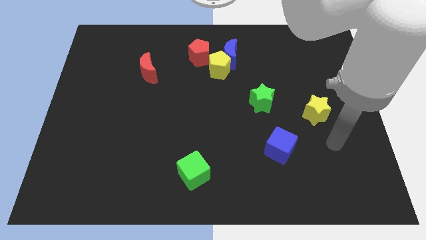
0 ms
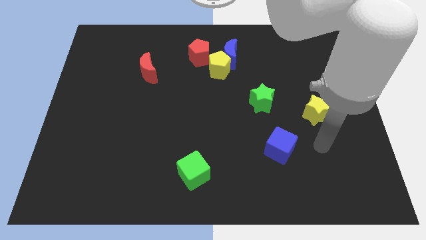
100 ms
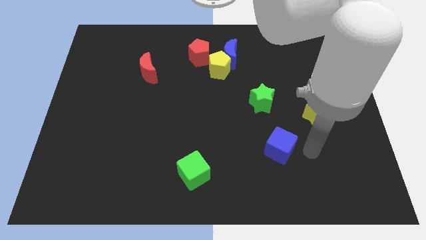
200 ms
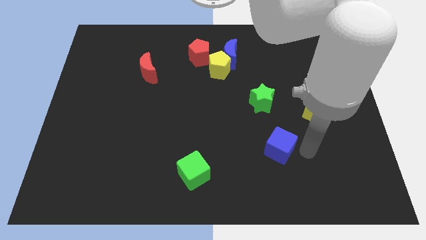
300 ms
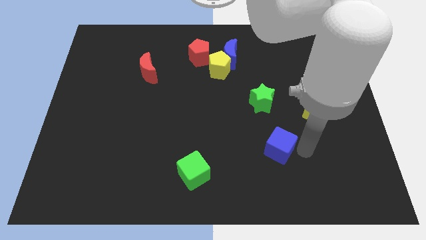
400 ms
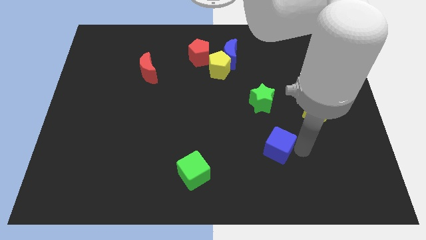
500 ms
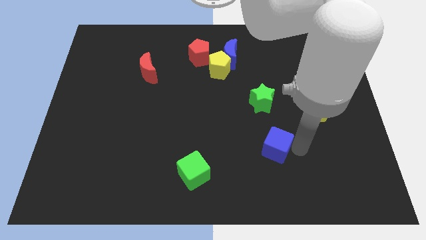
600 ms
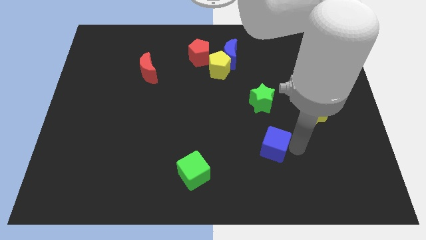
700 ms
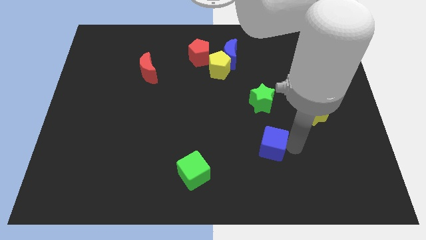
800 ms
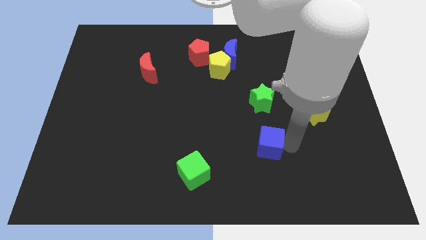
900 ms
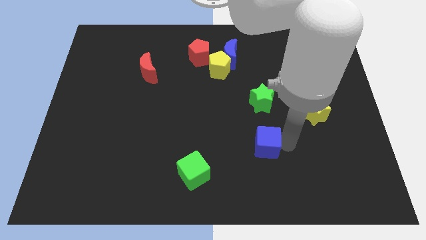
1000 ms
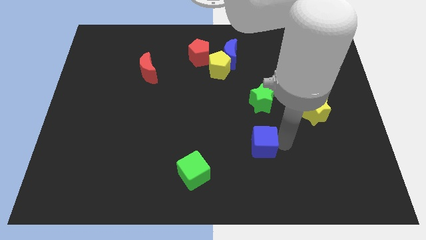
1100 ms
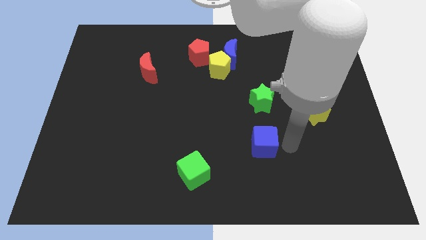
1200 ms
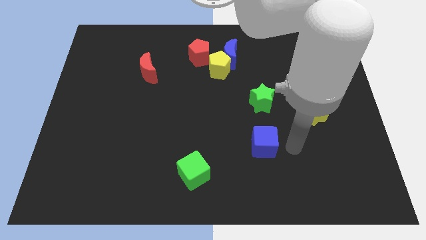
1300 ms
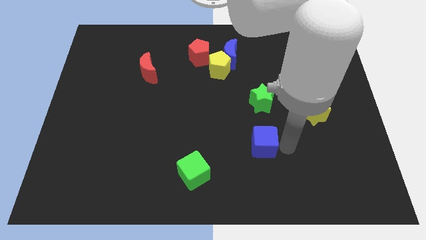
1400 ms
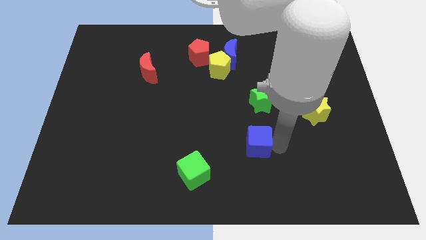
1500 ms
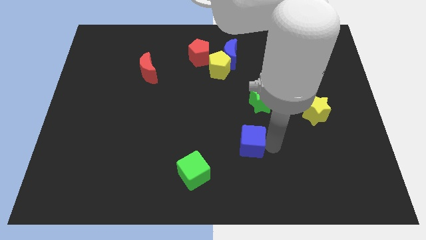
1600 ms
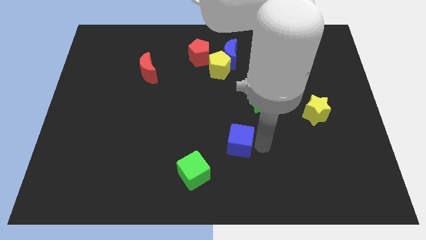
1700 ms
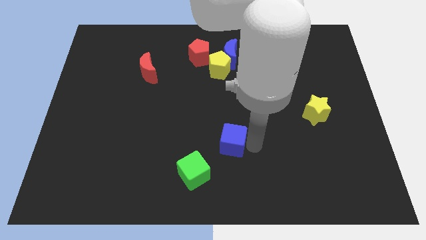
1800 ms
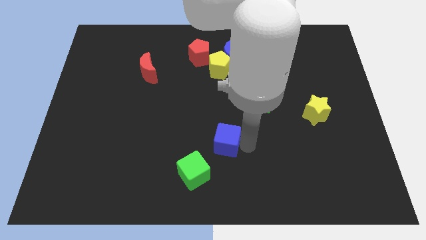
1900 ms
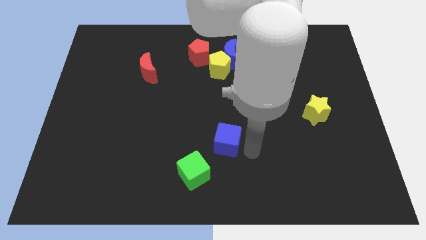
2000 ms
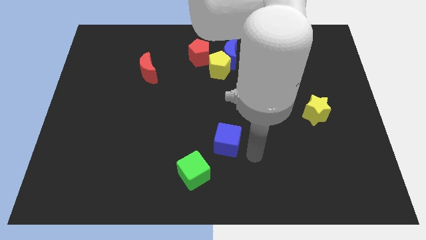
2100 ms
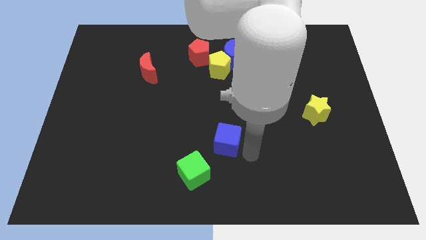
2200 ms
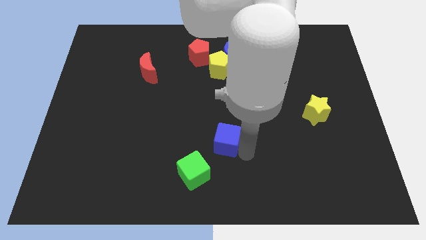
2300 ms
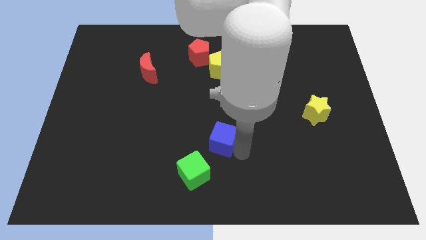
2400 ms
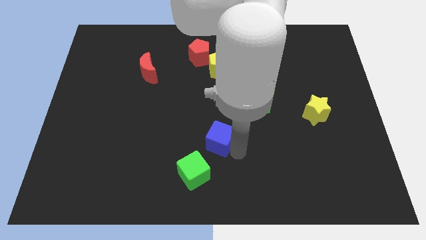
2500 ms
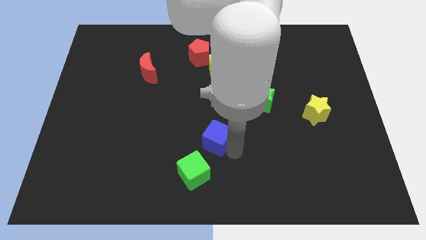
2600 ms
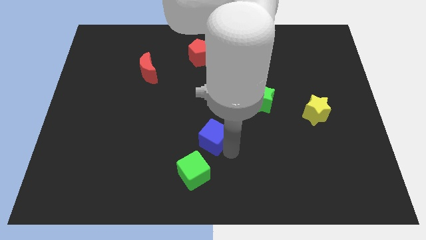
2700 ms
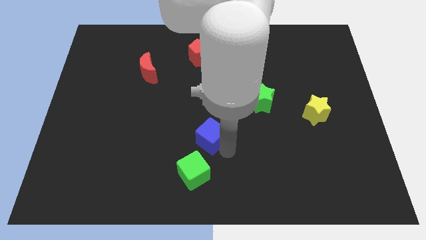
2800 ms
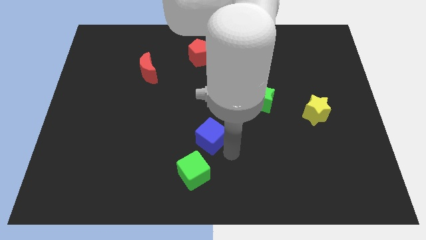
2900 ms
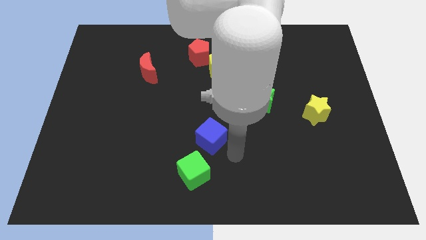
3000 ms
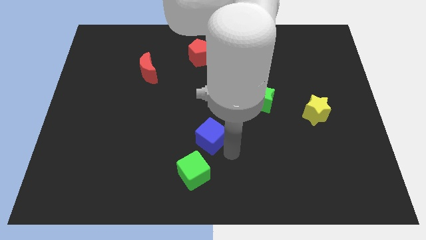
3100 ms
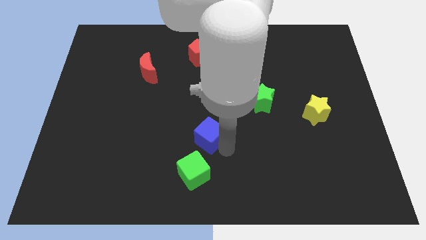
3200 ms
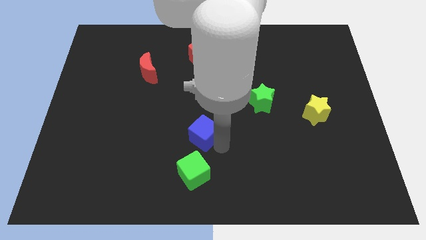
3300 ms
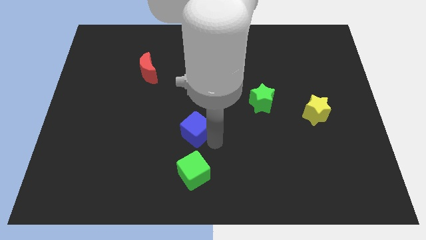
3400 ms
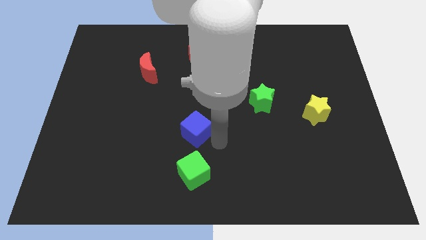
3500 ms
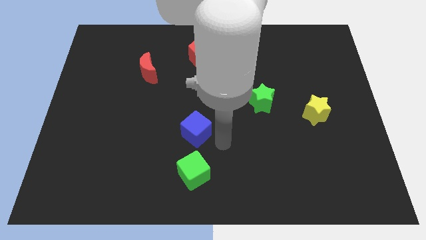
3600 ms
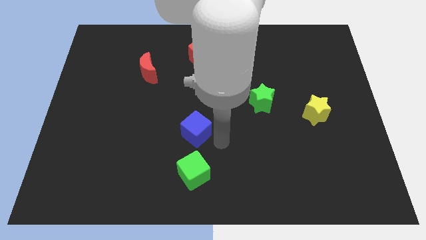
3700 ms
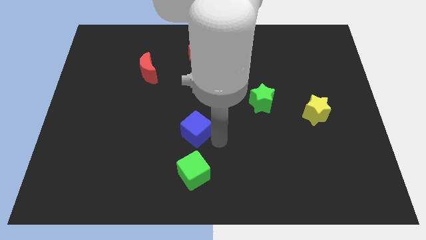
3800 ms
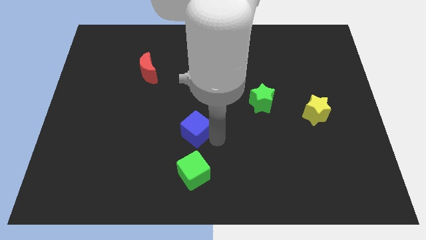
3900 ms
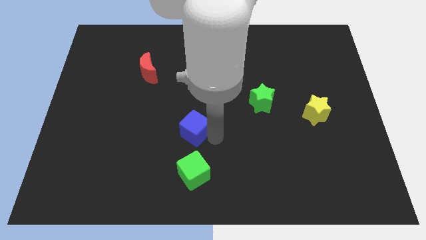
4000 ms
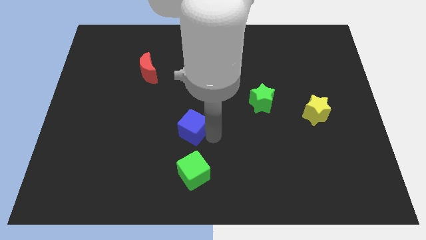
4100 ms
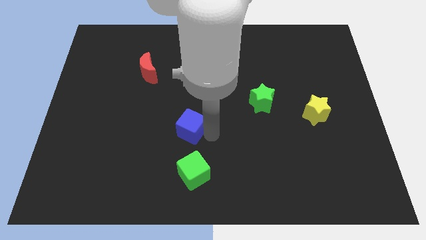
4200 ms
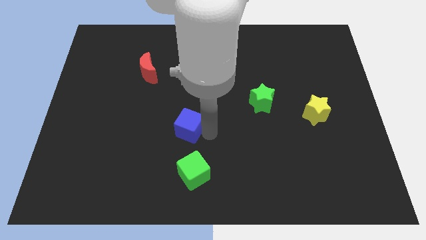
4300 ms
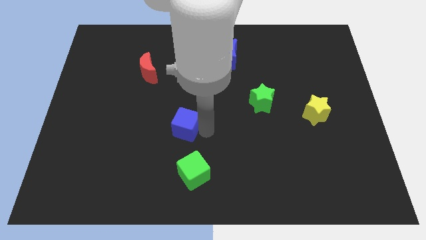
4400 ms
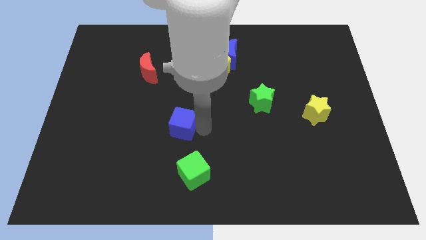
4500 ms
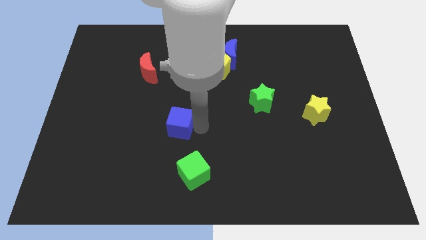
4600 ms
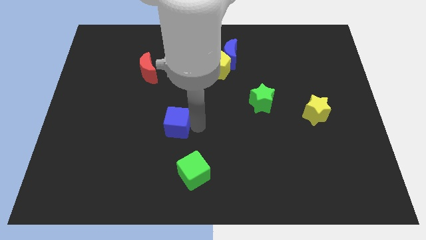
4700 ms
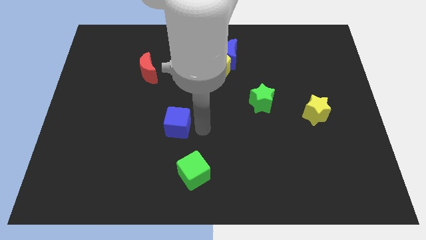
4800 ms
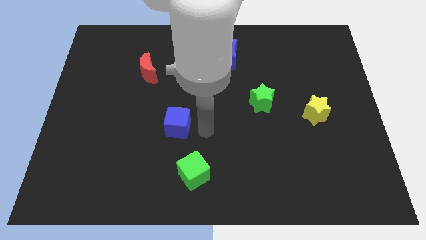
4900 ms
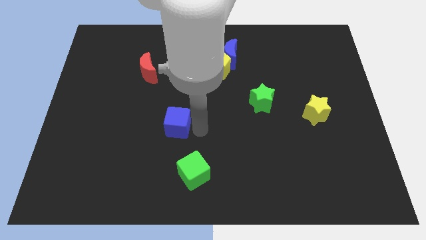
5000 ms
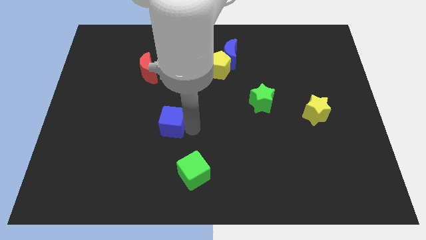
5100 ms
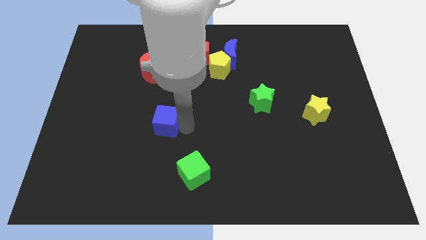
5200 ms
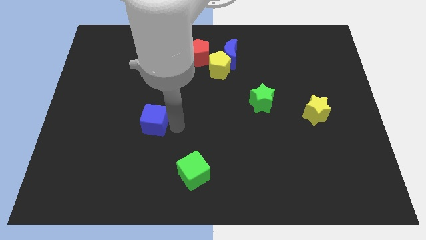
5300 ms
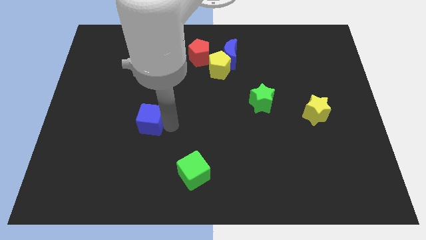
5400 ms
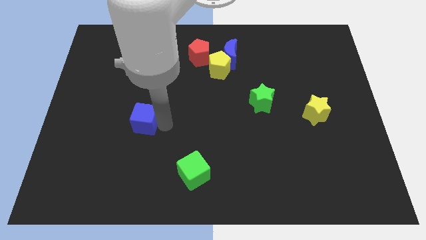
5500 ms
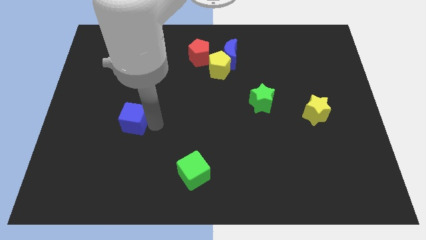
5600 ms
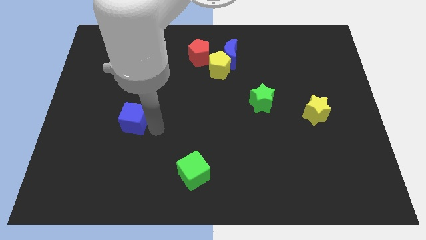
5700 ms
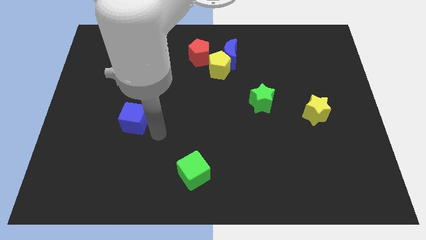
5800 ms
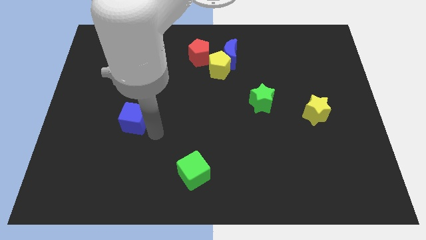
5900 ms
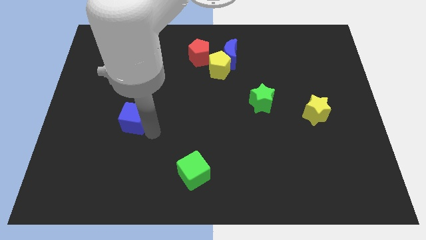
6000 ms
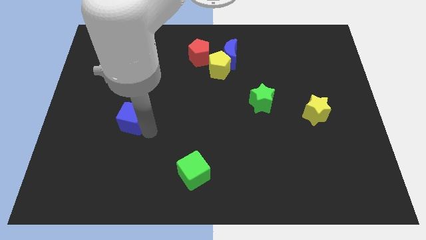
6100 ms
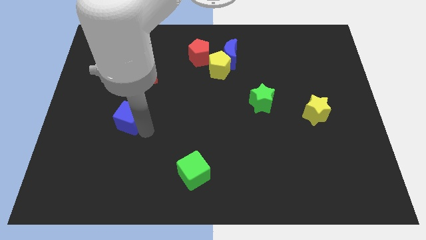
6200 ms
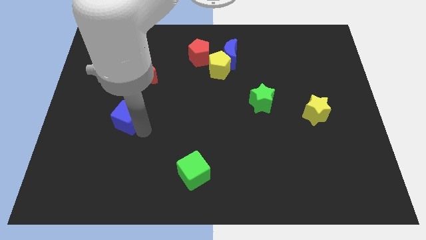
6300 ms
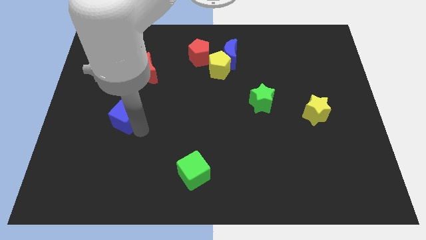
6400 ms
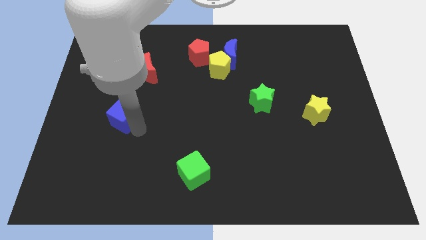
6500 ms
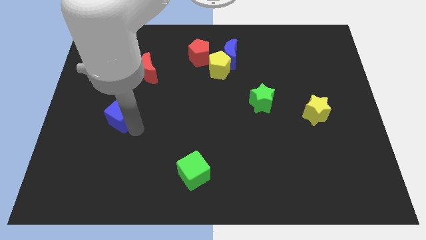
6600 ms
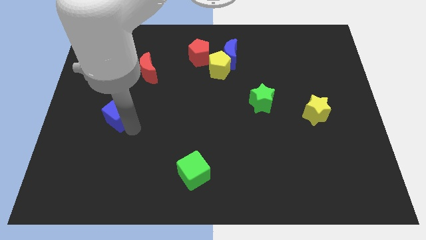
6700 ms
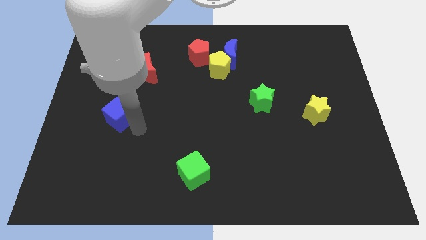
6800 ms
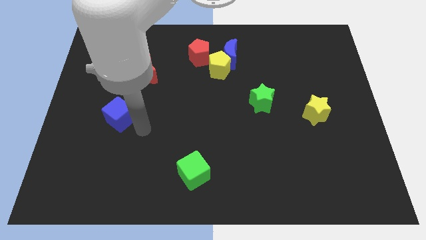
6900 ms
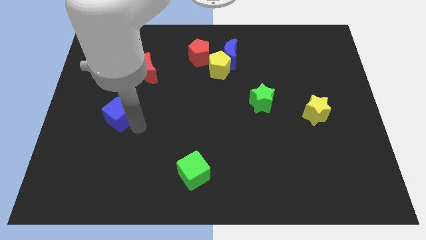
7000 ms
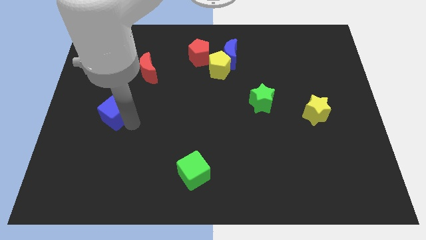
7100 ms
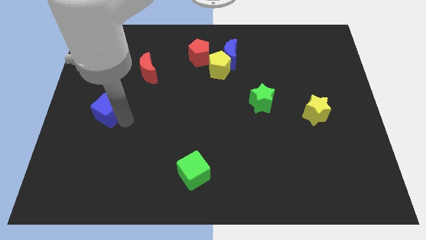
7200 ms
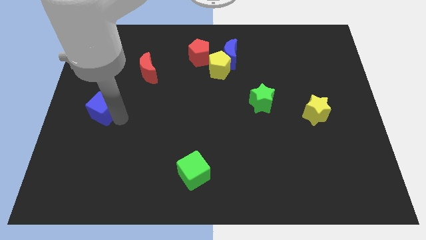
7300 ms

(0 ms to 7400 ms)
move the blue cube to the center left
